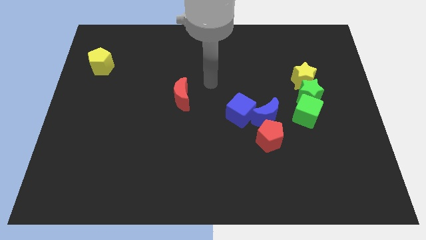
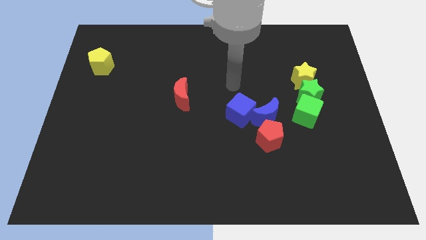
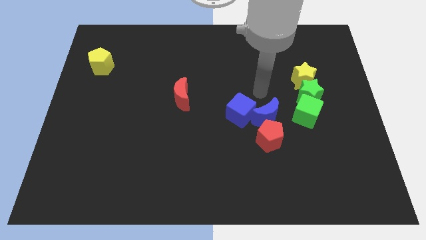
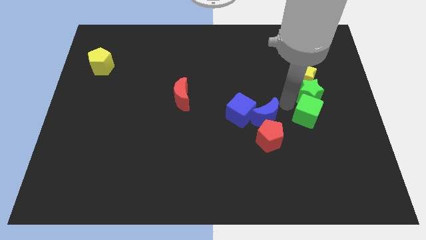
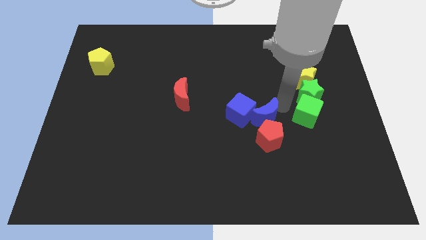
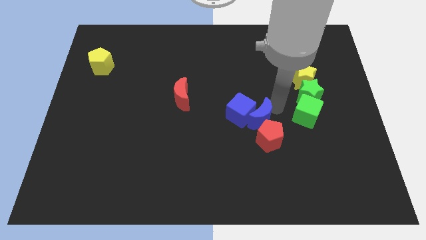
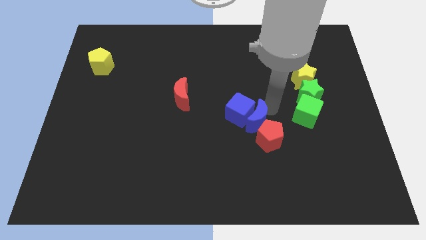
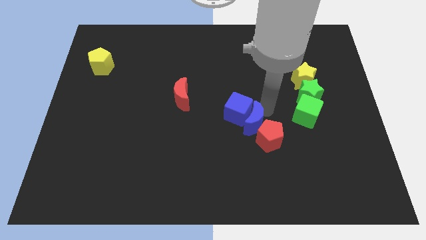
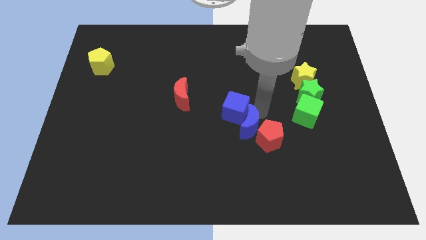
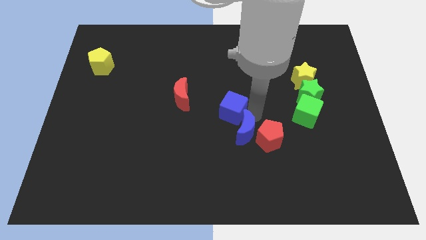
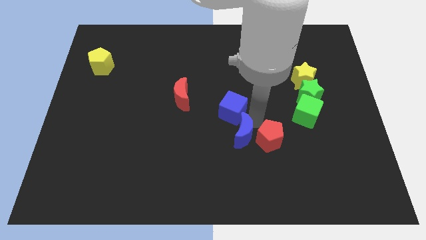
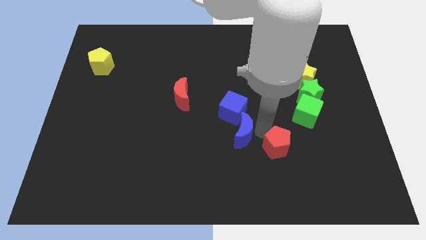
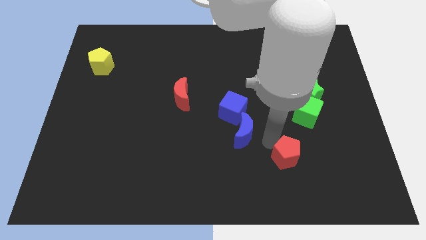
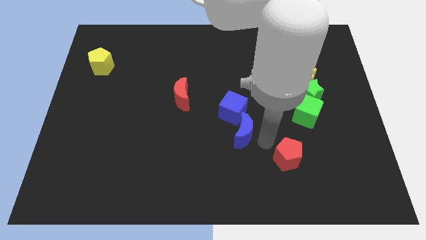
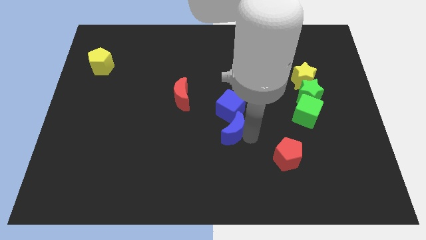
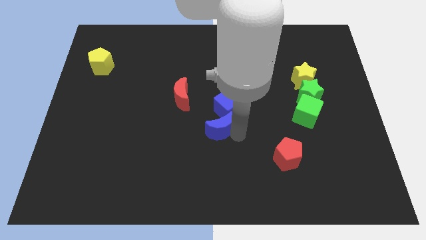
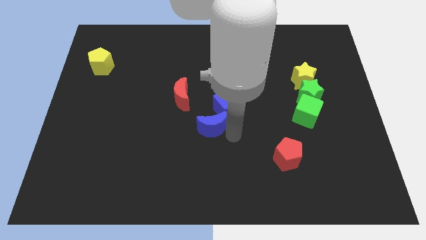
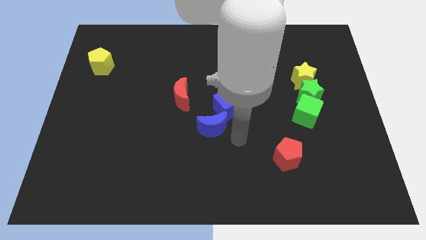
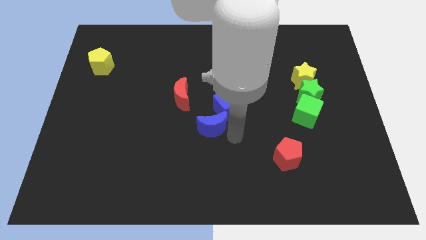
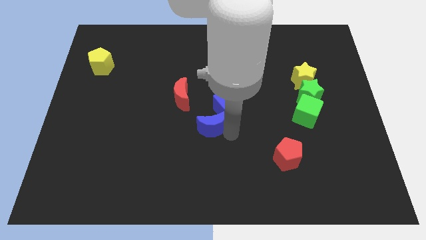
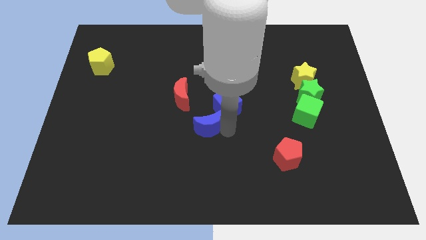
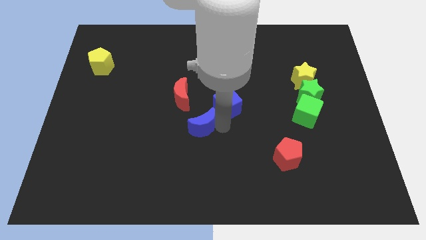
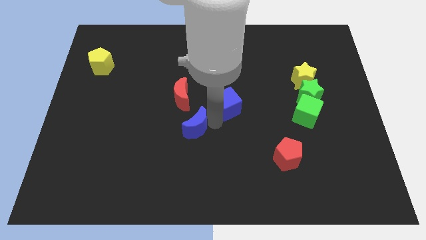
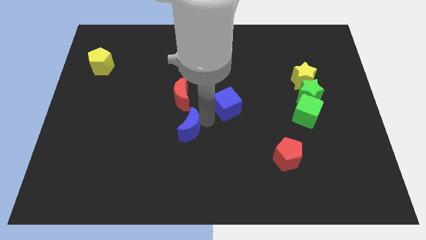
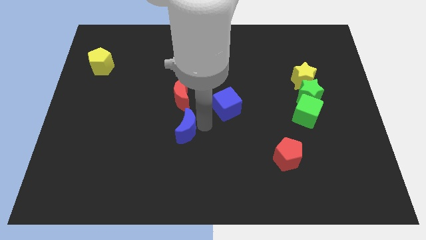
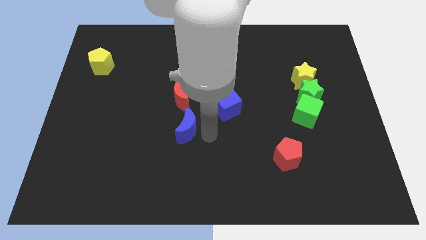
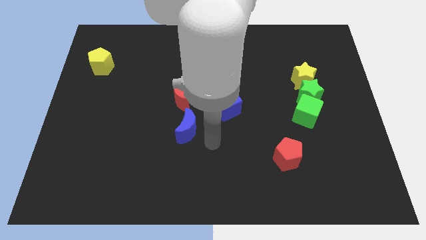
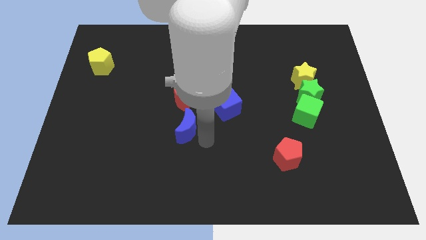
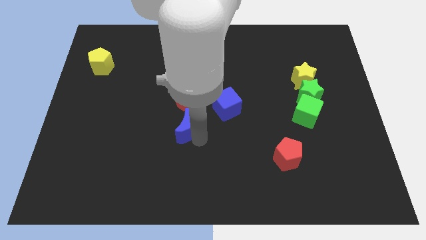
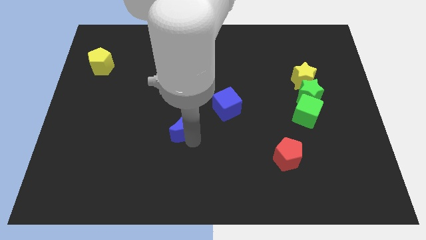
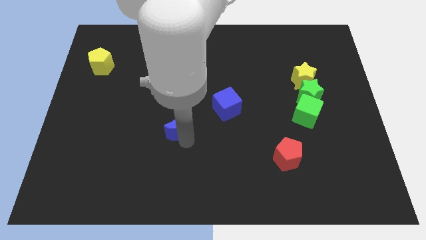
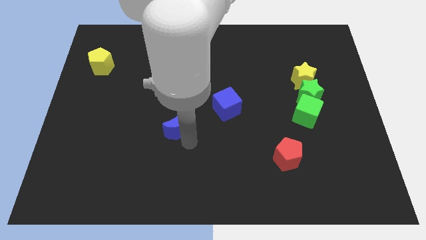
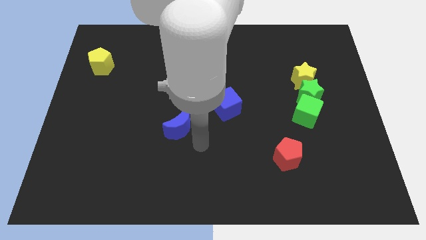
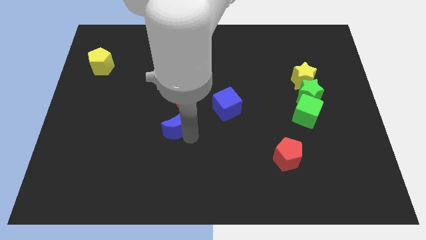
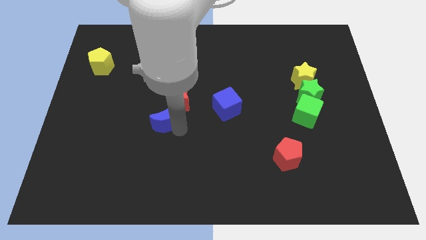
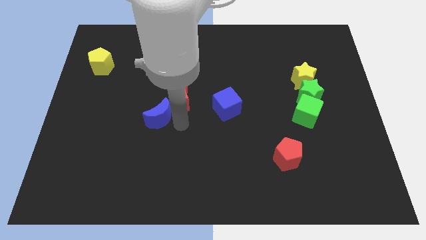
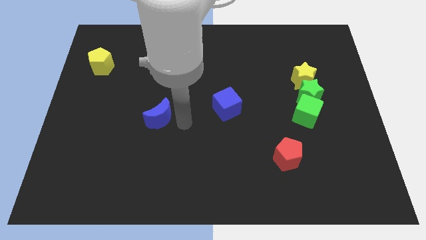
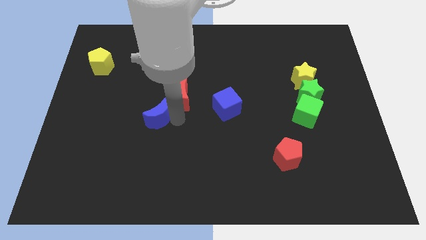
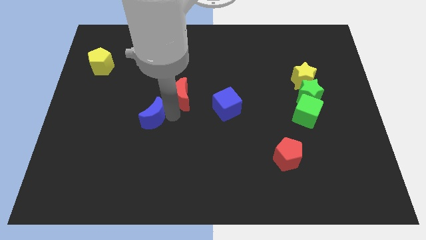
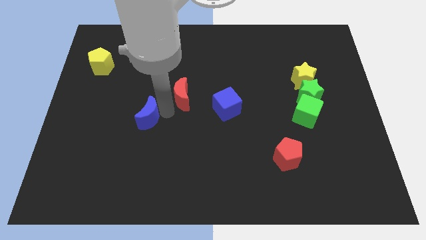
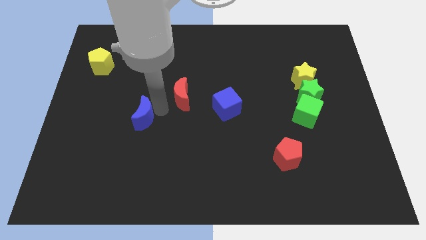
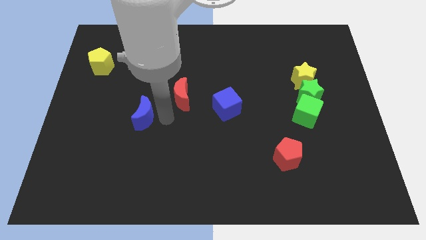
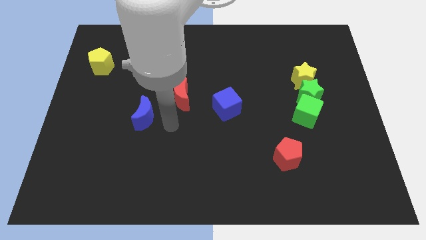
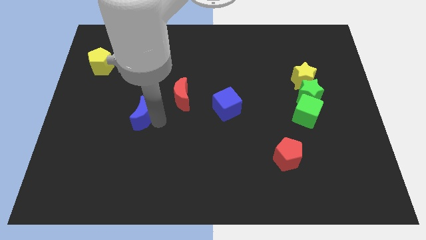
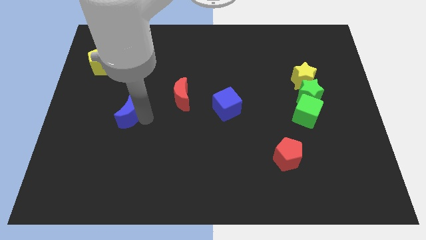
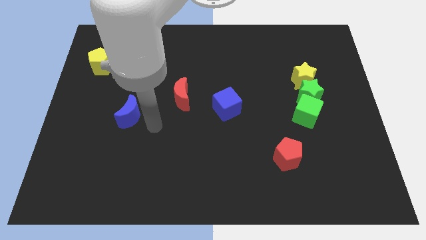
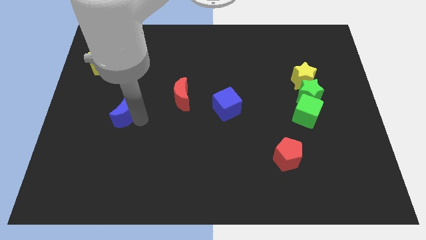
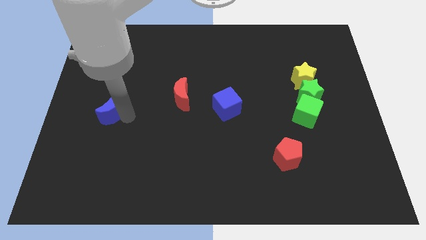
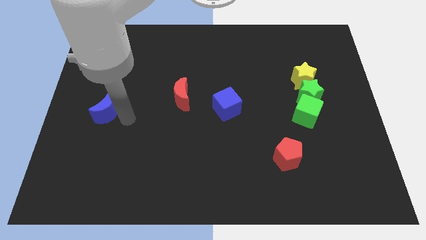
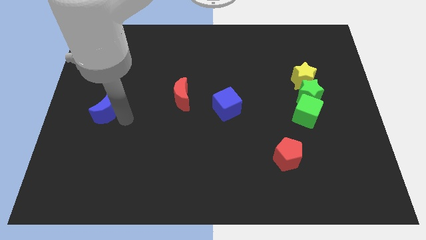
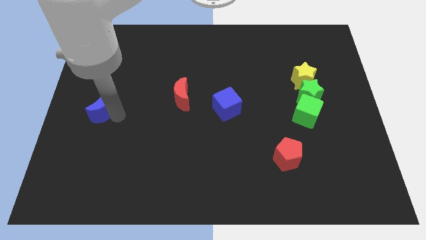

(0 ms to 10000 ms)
push the blue moon to the left side

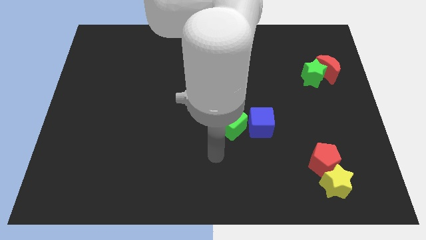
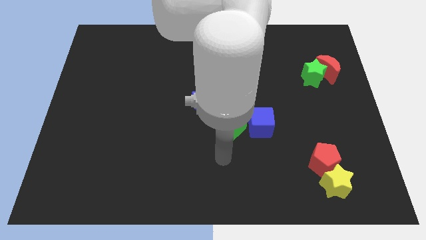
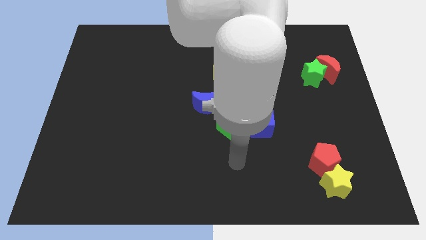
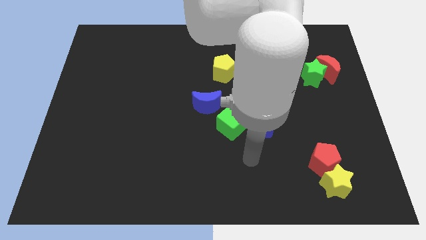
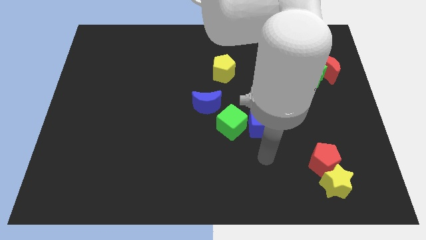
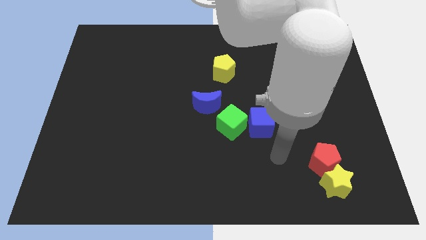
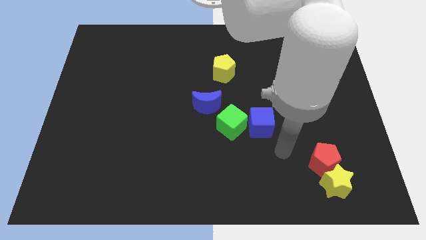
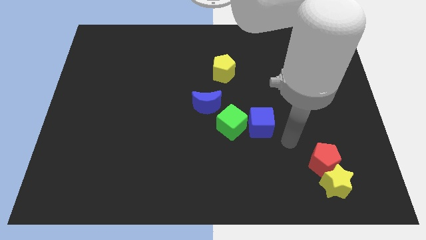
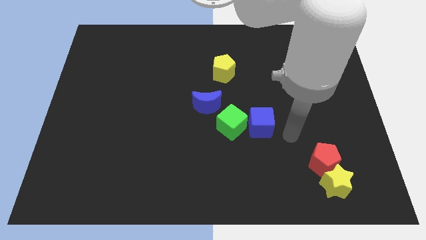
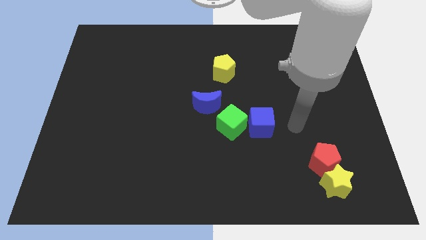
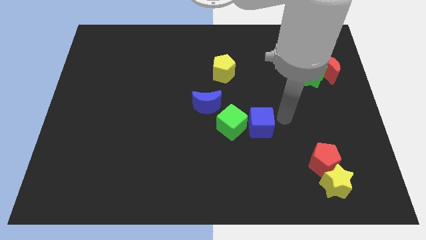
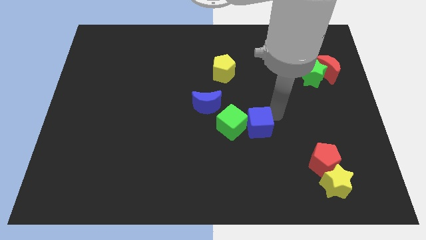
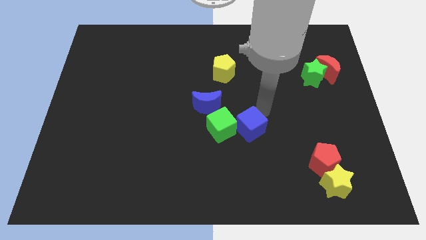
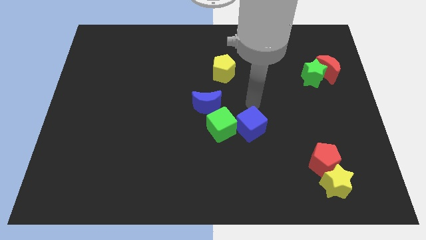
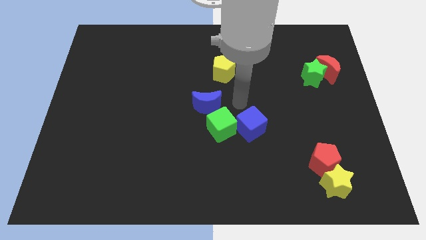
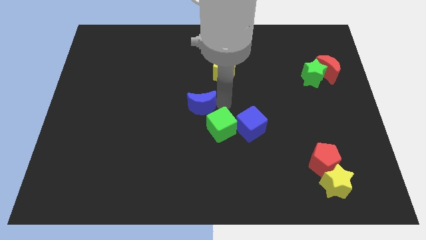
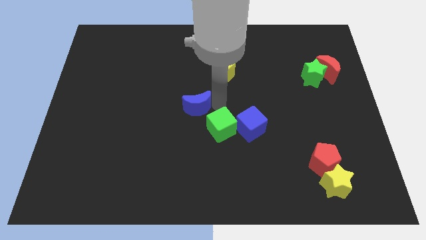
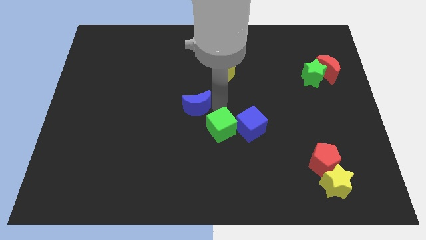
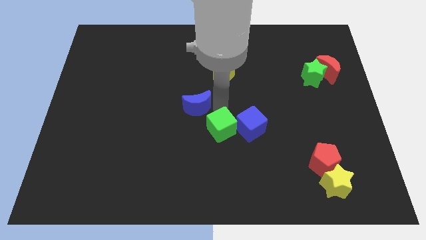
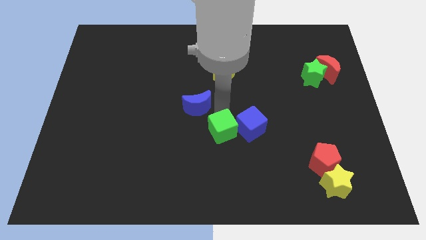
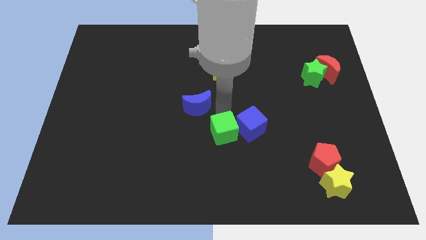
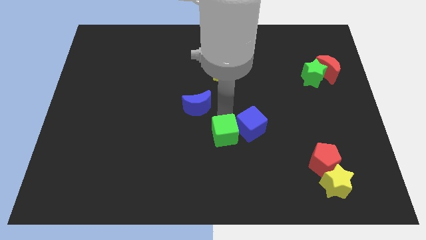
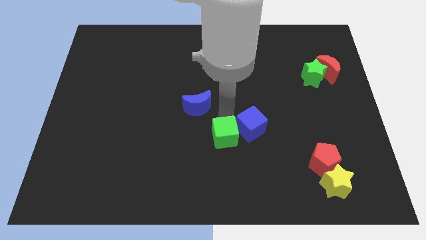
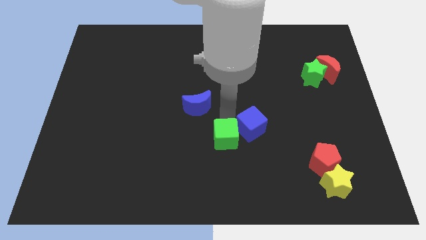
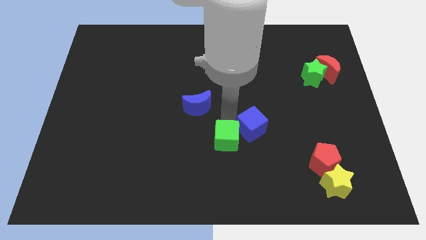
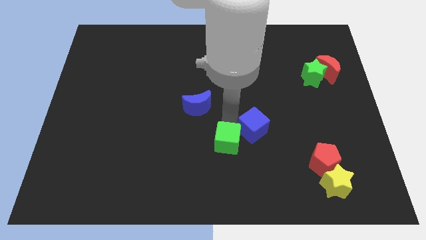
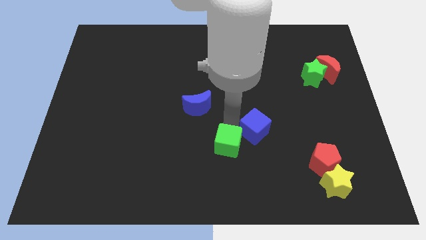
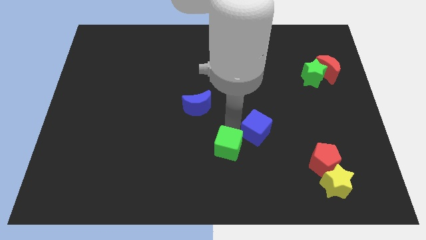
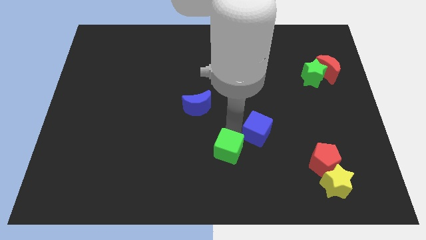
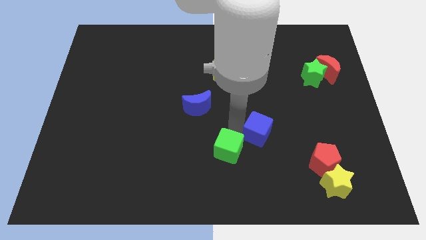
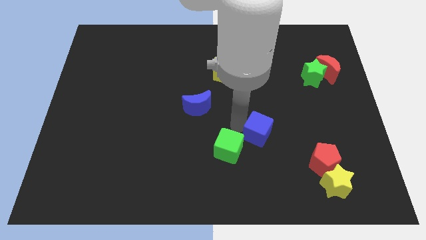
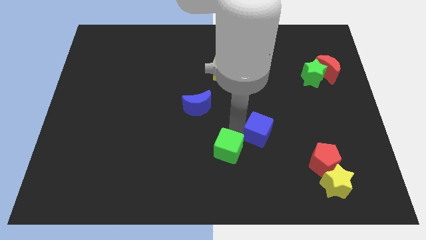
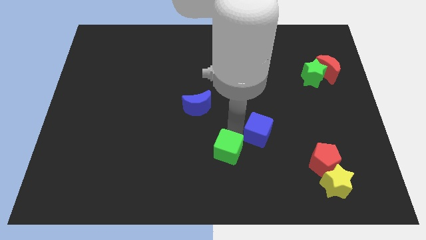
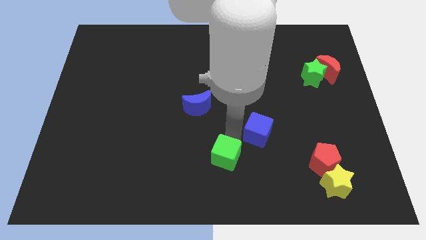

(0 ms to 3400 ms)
put the green cube to the bottom
